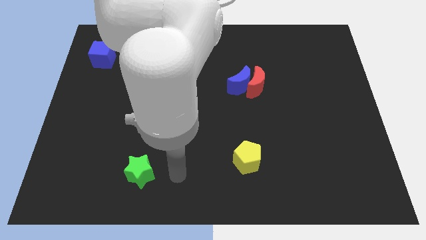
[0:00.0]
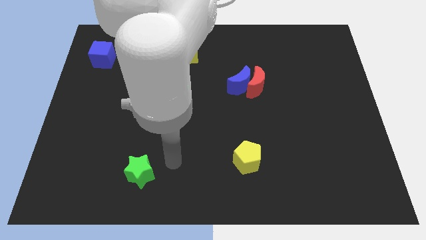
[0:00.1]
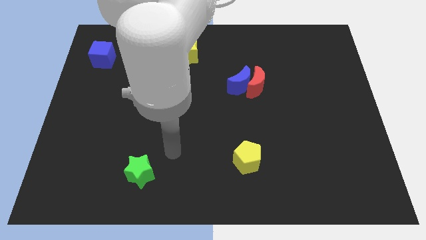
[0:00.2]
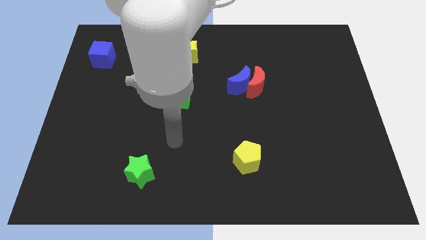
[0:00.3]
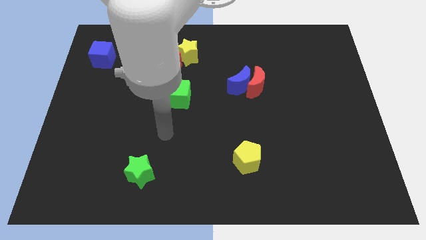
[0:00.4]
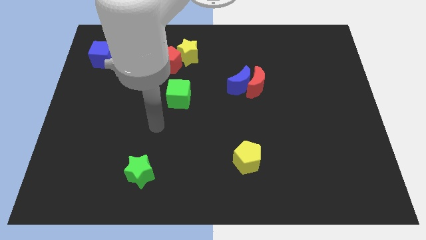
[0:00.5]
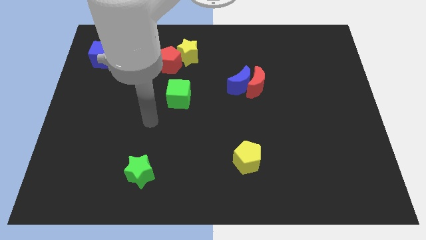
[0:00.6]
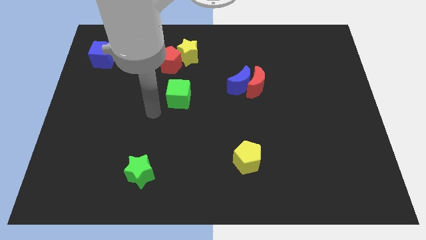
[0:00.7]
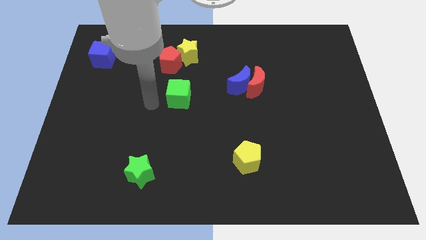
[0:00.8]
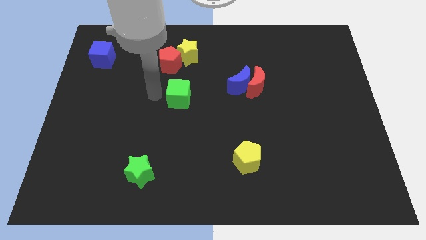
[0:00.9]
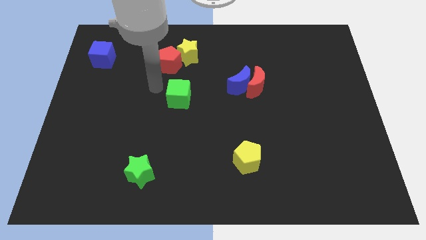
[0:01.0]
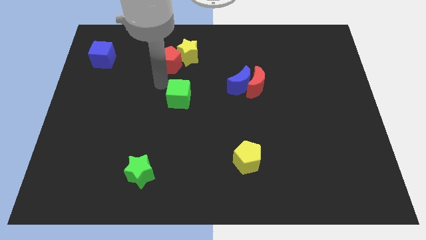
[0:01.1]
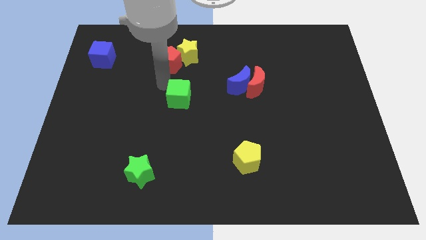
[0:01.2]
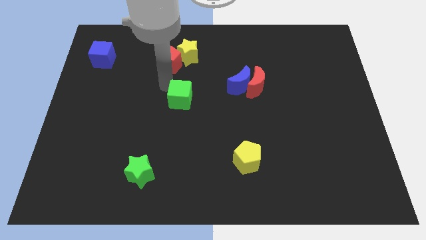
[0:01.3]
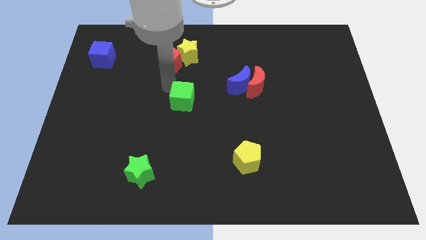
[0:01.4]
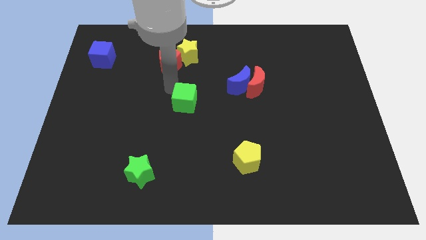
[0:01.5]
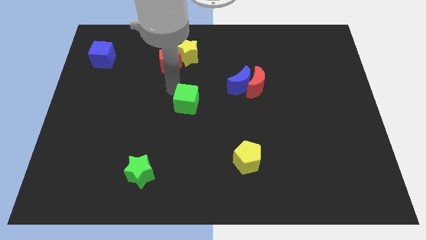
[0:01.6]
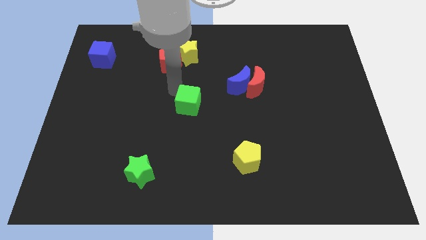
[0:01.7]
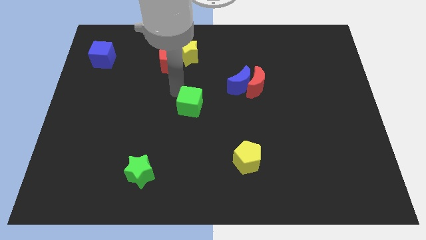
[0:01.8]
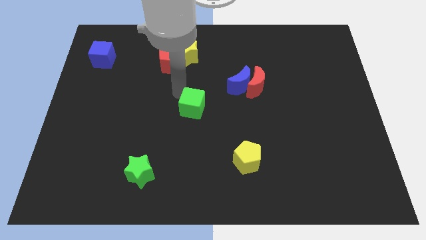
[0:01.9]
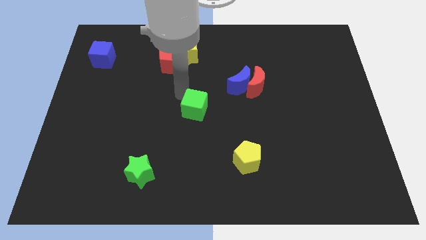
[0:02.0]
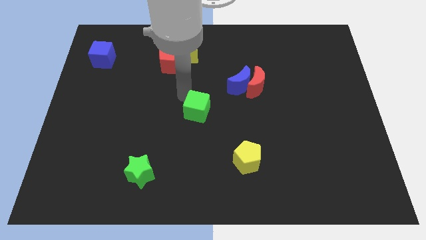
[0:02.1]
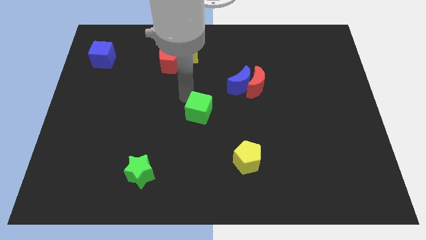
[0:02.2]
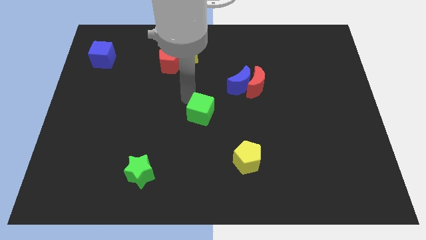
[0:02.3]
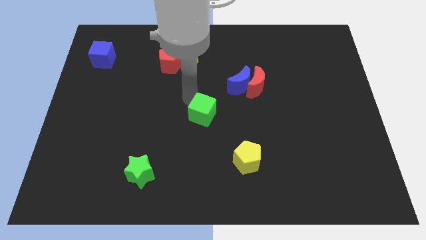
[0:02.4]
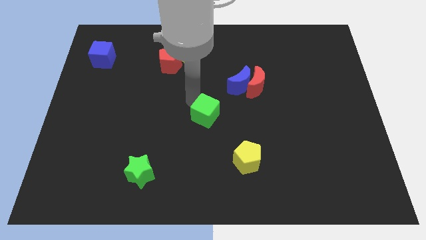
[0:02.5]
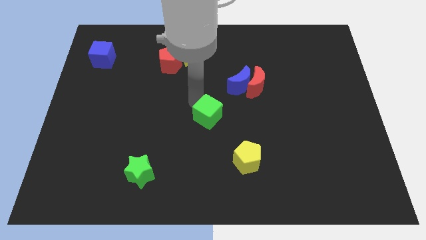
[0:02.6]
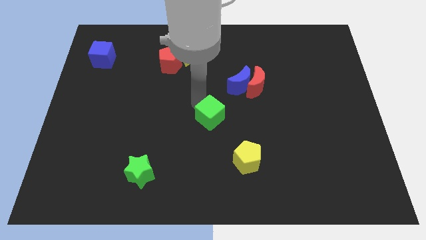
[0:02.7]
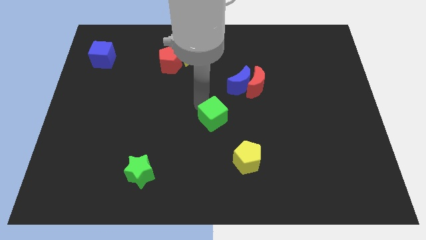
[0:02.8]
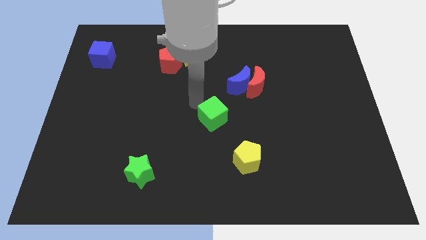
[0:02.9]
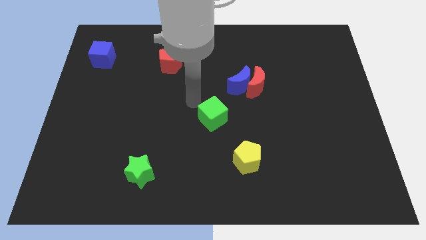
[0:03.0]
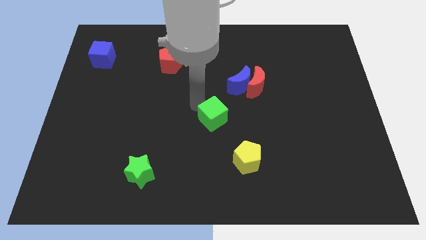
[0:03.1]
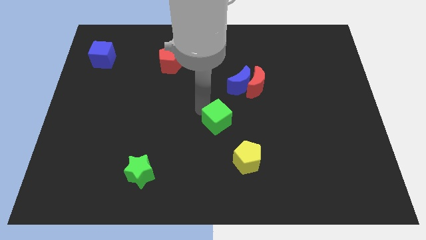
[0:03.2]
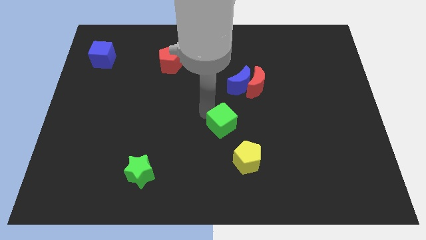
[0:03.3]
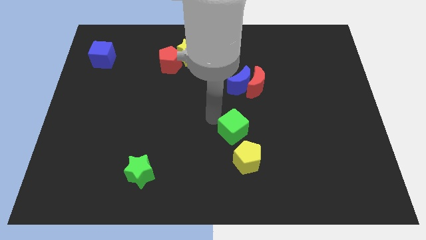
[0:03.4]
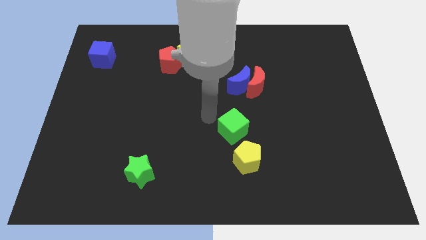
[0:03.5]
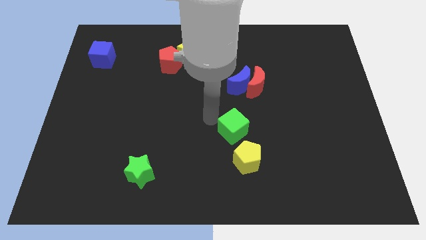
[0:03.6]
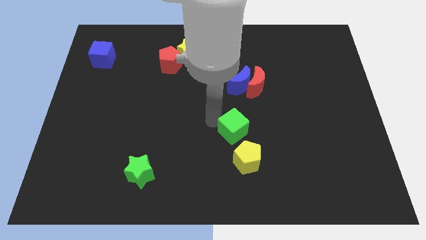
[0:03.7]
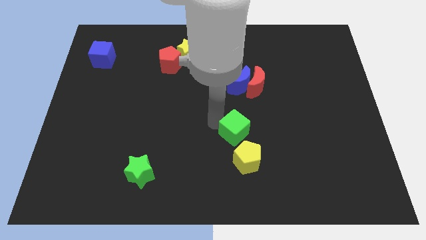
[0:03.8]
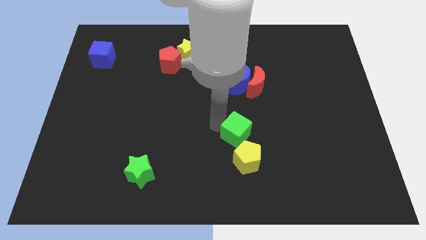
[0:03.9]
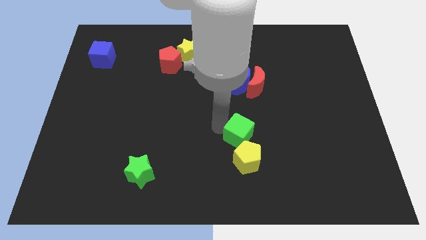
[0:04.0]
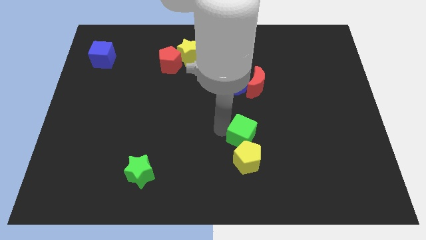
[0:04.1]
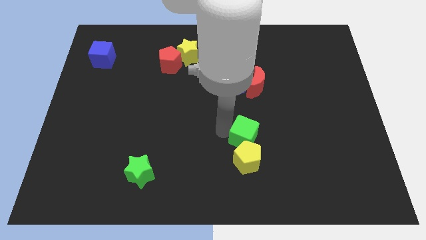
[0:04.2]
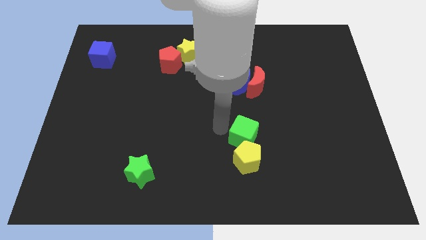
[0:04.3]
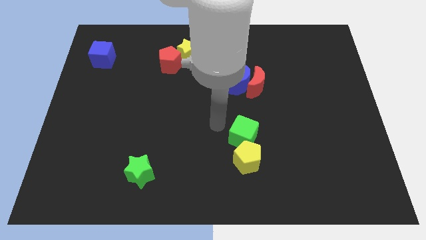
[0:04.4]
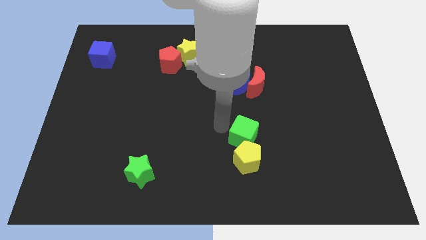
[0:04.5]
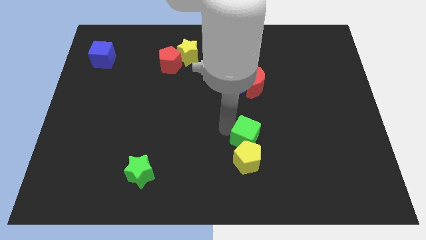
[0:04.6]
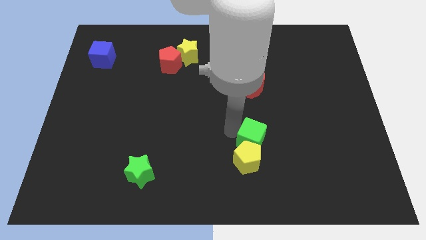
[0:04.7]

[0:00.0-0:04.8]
move the green cube diagonally downwards and to the right

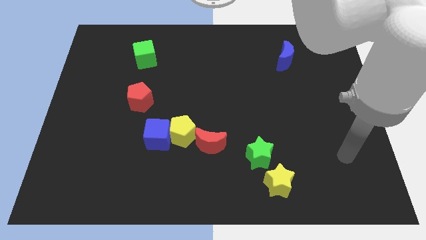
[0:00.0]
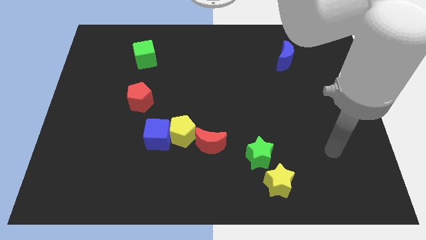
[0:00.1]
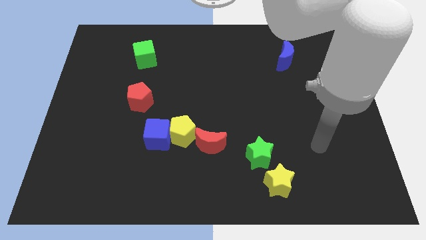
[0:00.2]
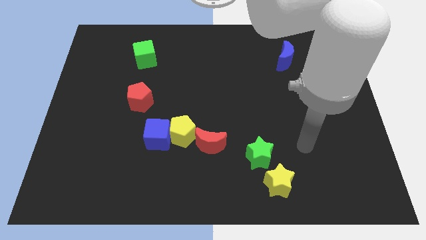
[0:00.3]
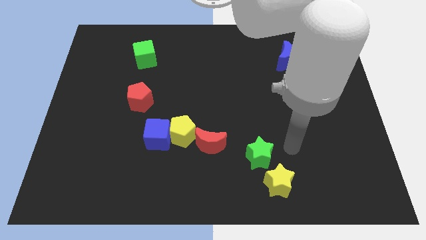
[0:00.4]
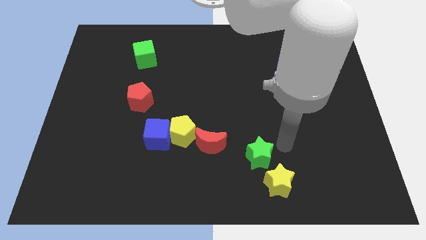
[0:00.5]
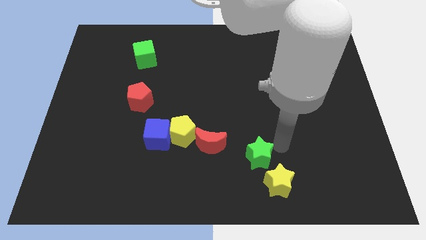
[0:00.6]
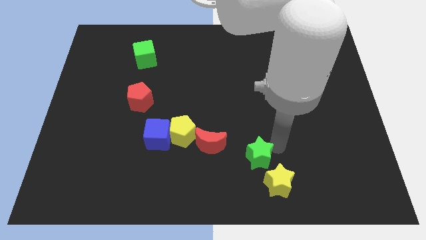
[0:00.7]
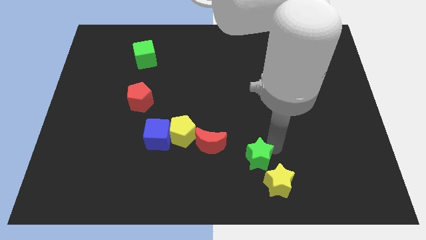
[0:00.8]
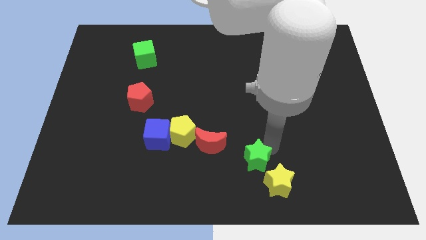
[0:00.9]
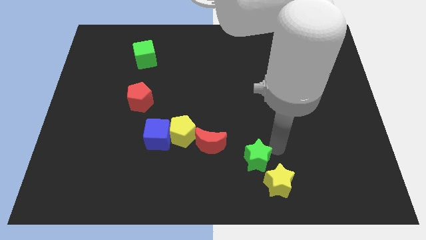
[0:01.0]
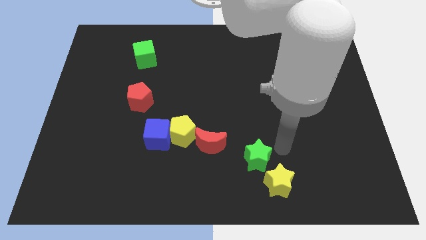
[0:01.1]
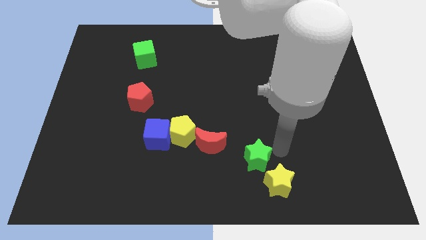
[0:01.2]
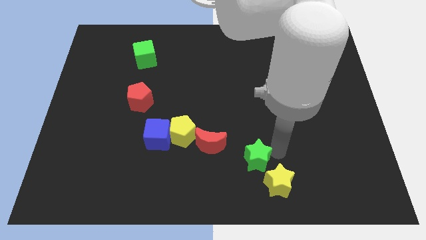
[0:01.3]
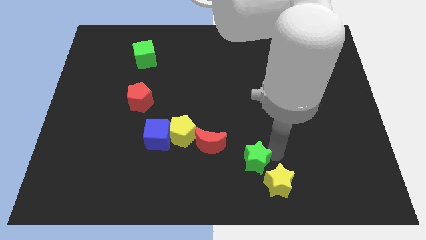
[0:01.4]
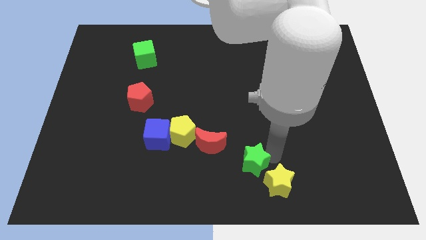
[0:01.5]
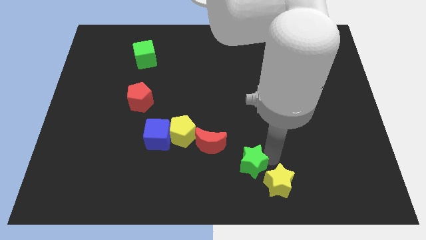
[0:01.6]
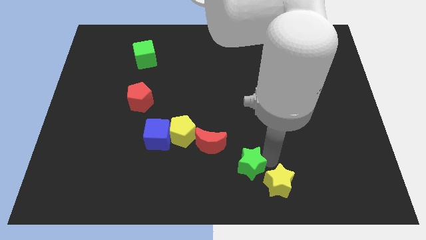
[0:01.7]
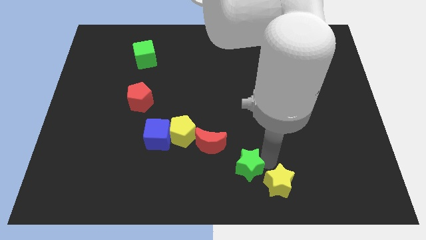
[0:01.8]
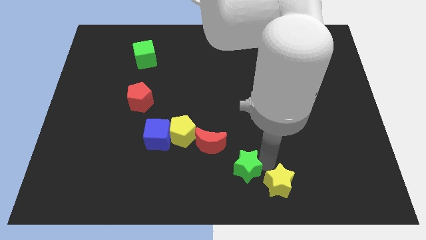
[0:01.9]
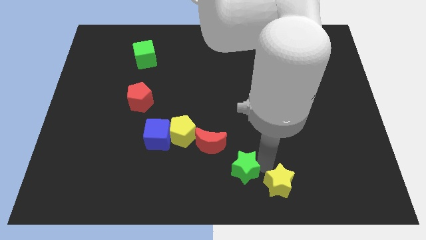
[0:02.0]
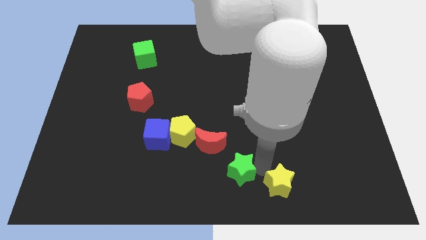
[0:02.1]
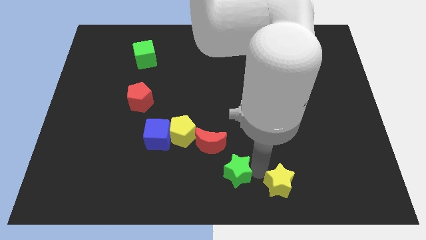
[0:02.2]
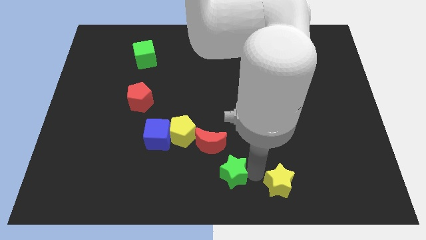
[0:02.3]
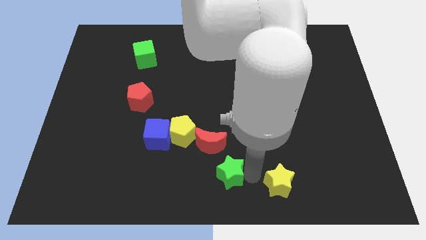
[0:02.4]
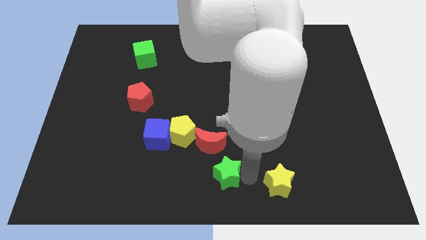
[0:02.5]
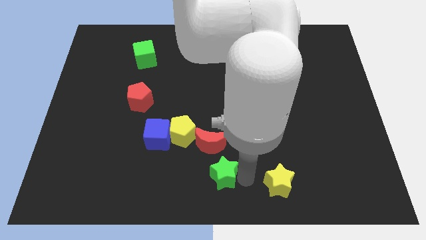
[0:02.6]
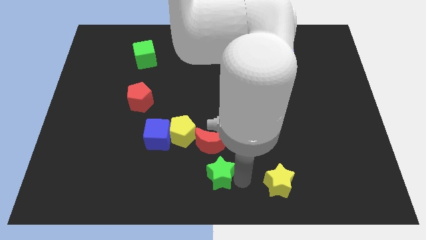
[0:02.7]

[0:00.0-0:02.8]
slightly push the green star to the left

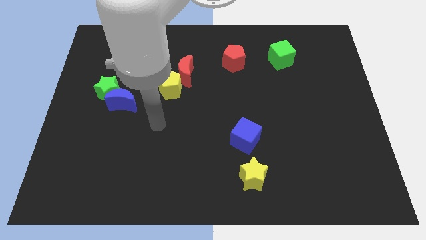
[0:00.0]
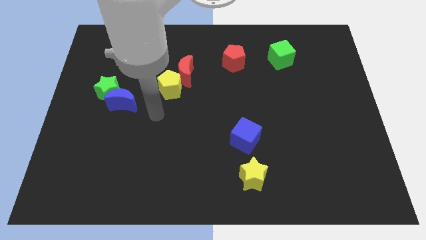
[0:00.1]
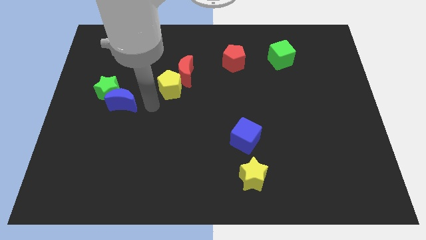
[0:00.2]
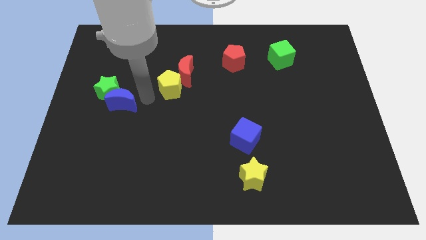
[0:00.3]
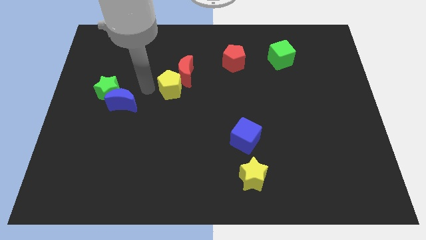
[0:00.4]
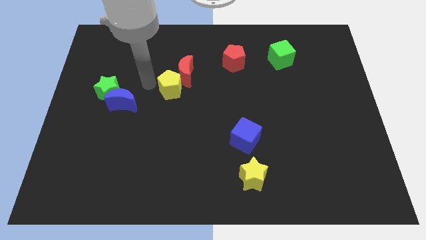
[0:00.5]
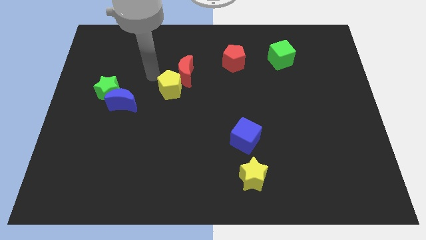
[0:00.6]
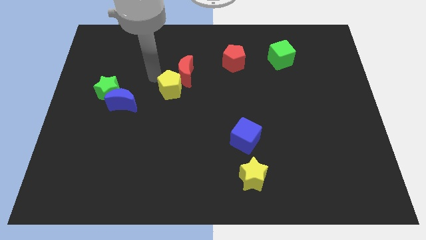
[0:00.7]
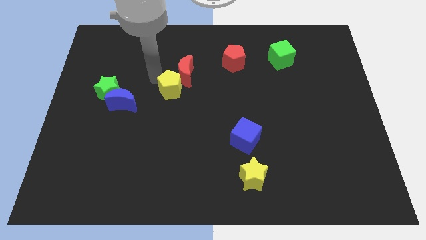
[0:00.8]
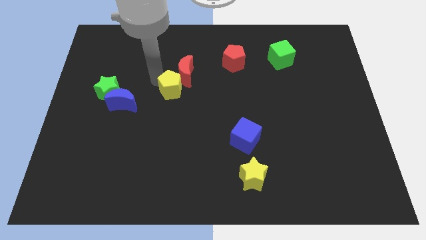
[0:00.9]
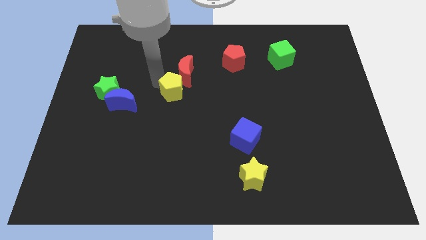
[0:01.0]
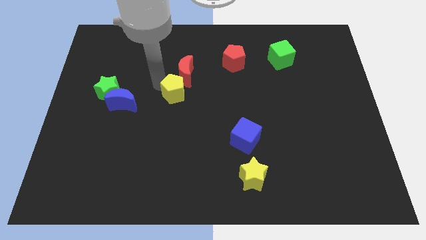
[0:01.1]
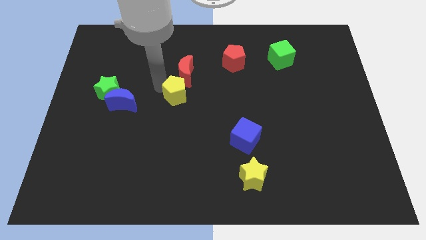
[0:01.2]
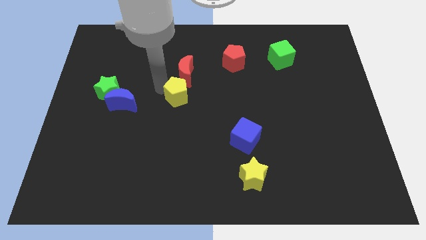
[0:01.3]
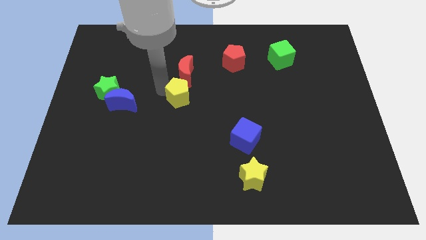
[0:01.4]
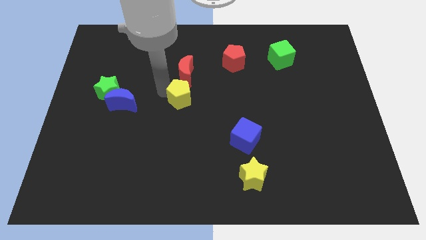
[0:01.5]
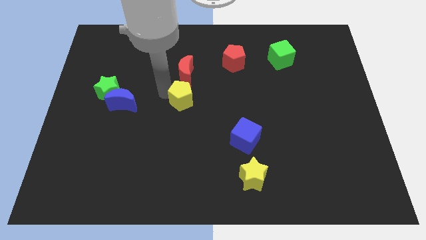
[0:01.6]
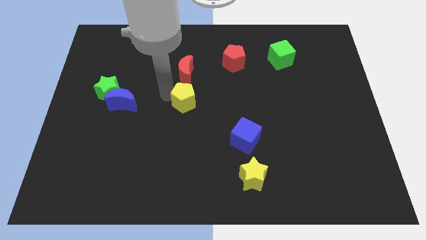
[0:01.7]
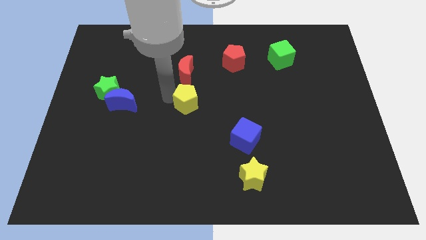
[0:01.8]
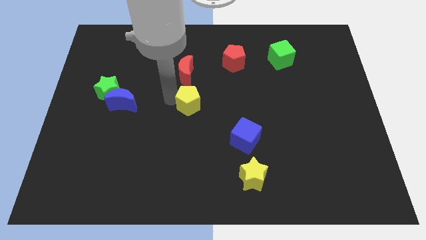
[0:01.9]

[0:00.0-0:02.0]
slide the yellow pentagon a bit down and to the right
